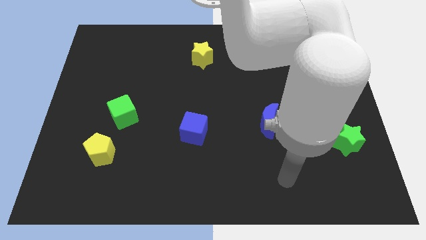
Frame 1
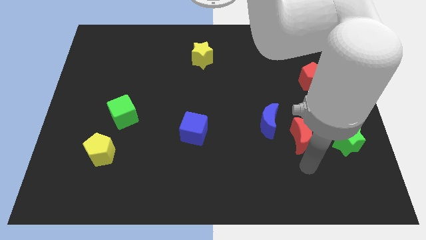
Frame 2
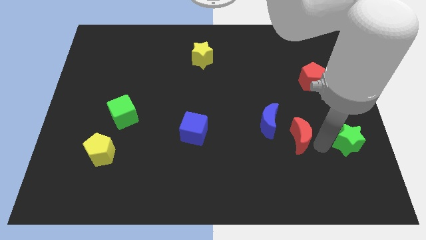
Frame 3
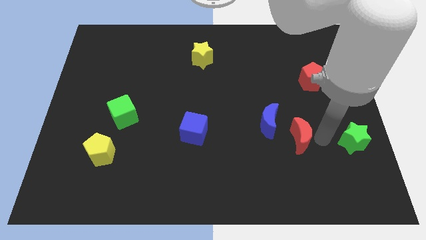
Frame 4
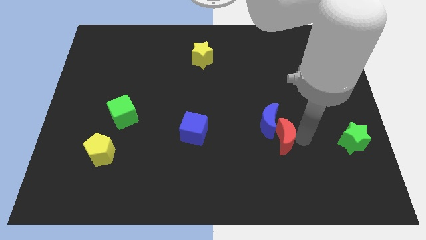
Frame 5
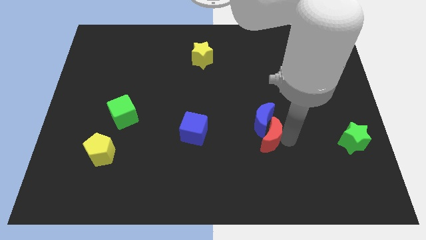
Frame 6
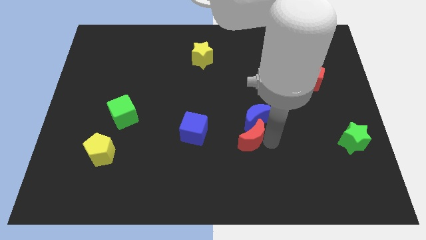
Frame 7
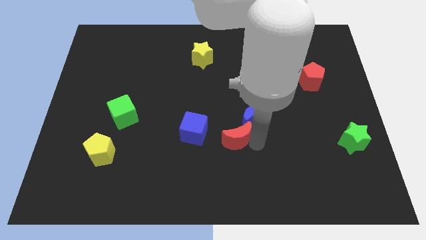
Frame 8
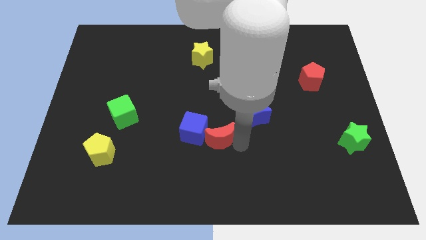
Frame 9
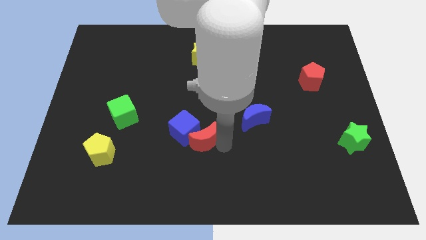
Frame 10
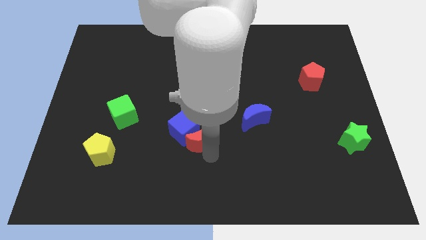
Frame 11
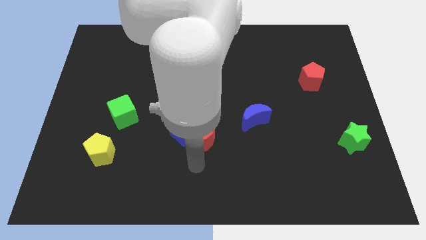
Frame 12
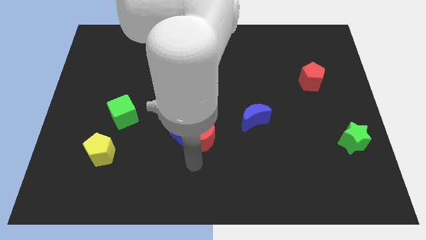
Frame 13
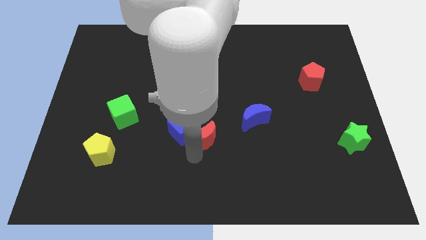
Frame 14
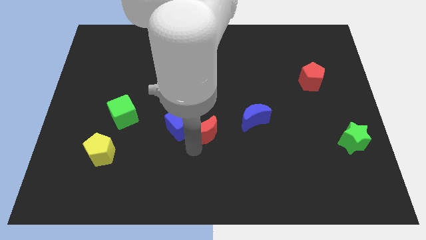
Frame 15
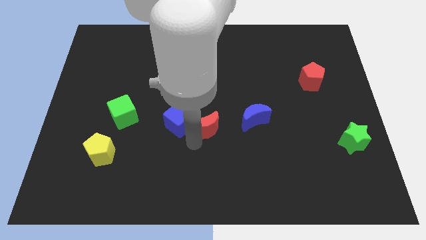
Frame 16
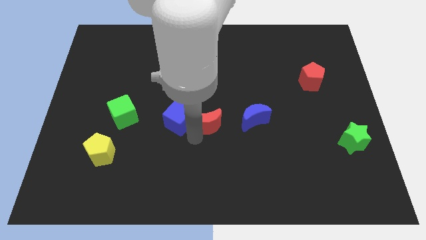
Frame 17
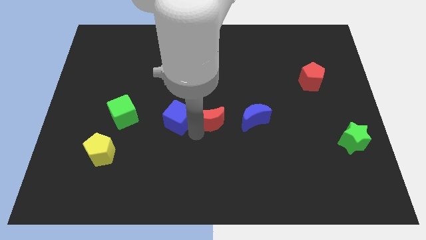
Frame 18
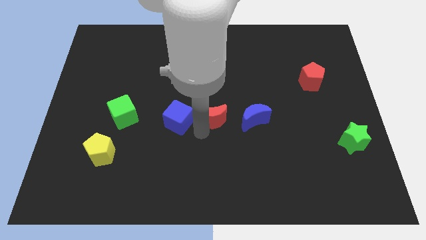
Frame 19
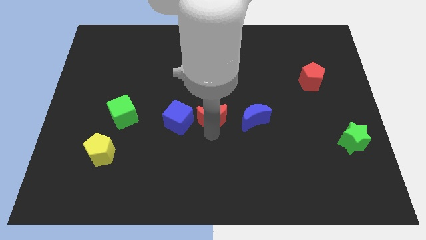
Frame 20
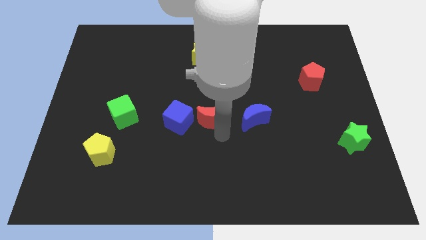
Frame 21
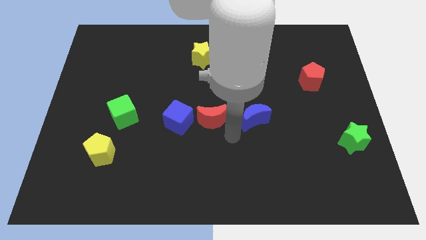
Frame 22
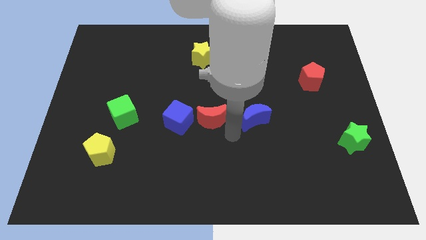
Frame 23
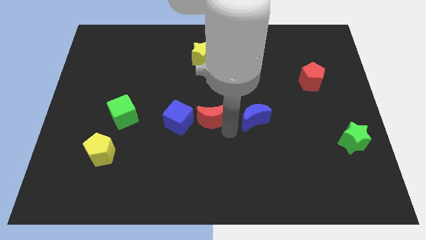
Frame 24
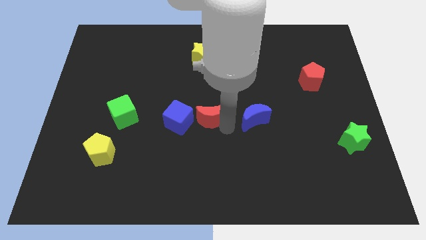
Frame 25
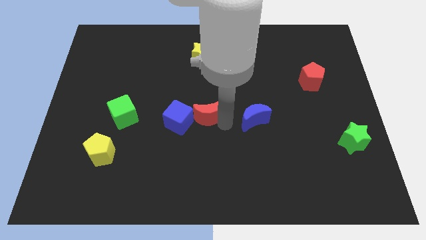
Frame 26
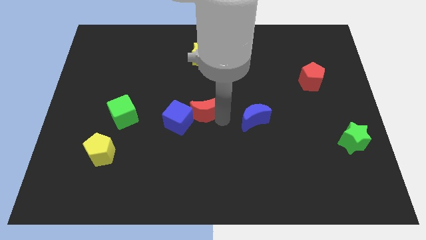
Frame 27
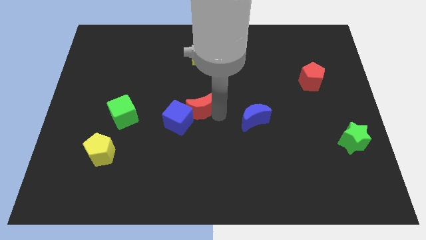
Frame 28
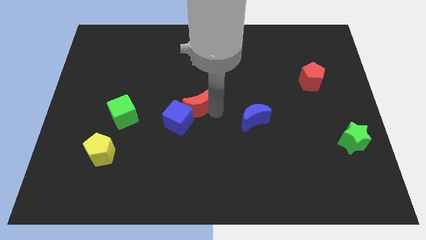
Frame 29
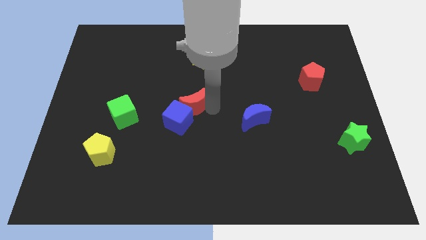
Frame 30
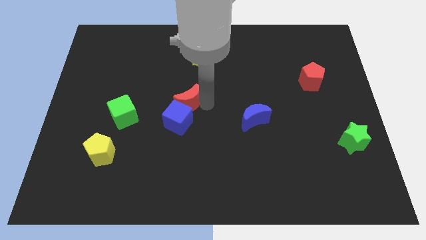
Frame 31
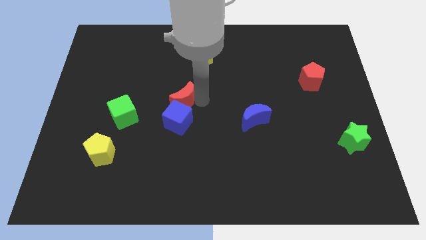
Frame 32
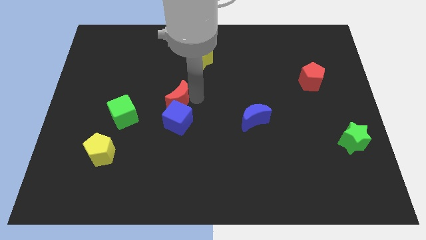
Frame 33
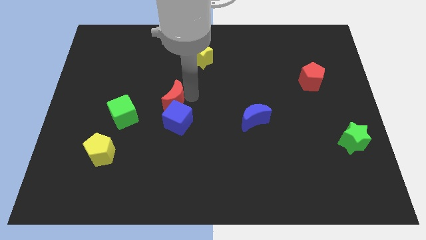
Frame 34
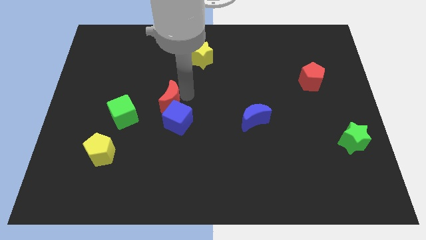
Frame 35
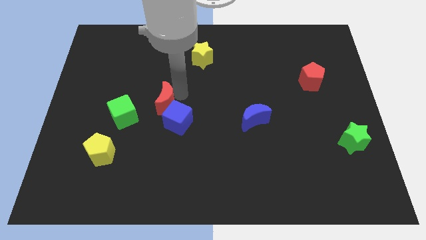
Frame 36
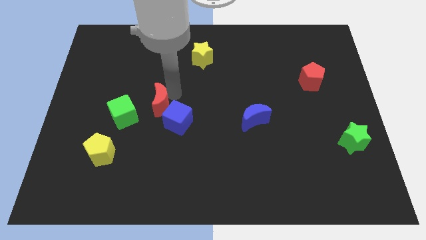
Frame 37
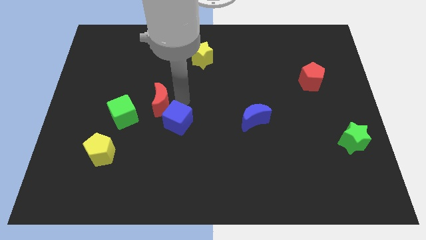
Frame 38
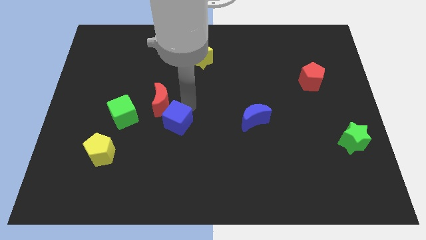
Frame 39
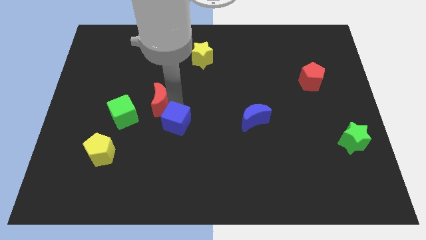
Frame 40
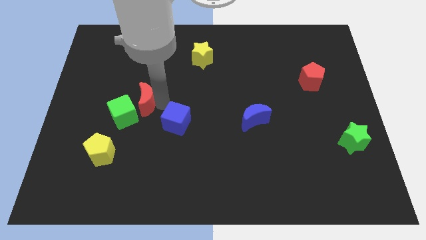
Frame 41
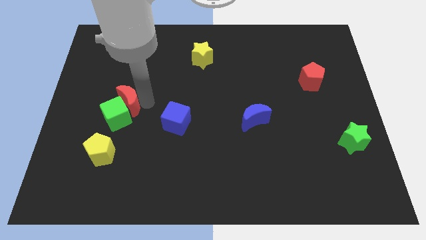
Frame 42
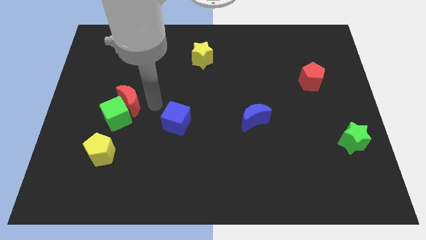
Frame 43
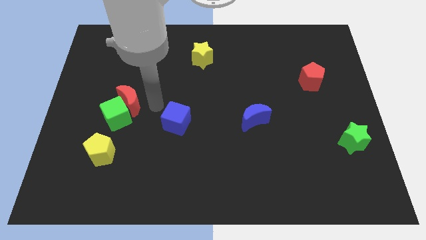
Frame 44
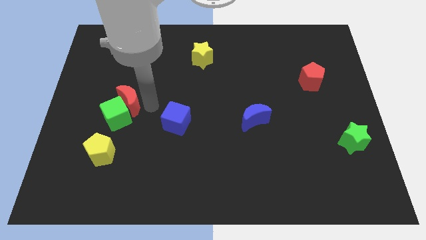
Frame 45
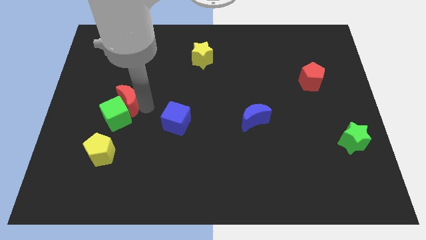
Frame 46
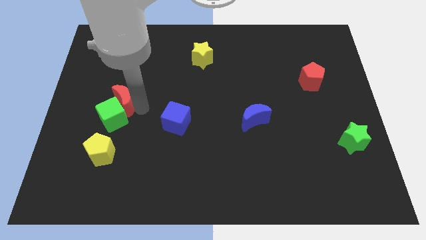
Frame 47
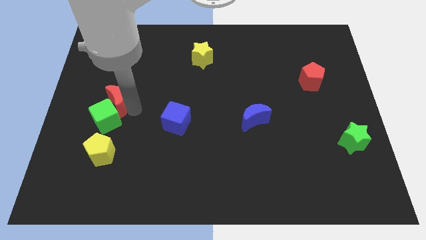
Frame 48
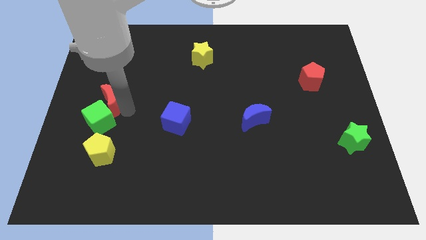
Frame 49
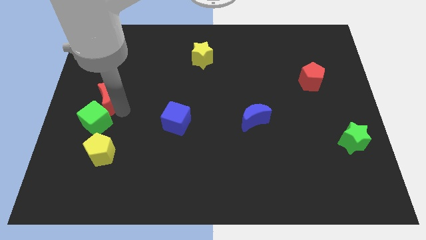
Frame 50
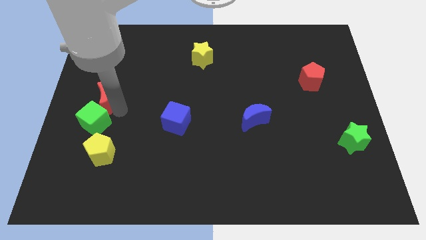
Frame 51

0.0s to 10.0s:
move the red moon to the left side

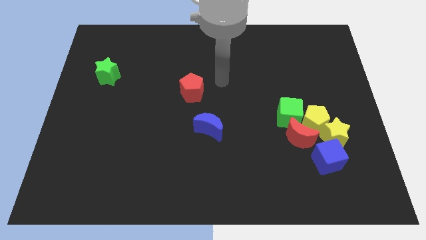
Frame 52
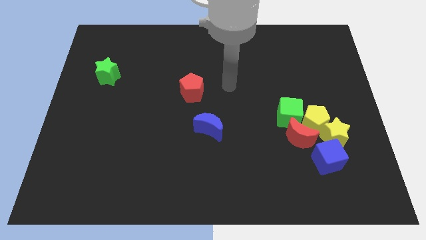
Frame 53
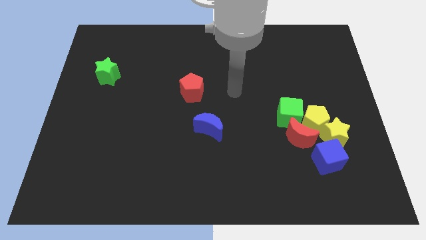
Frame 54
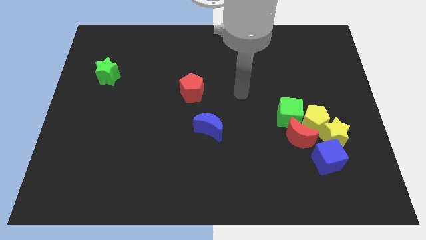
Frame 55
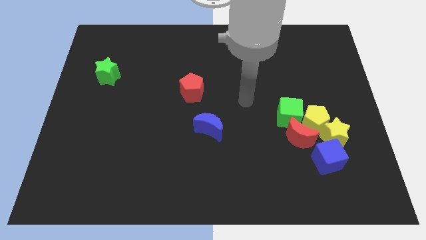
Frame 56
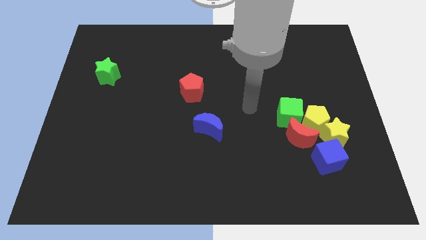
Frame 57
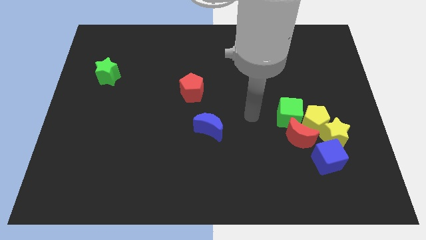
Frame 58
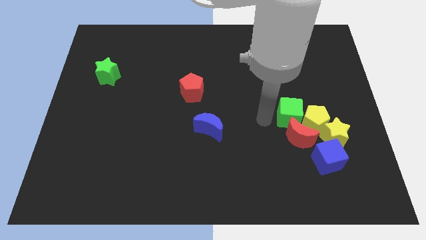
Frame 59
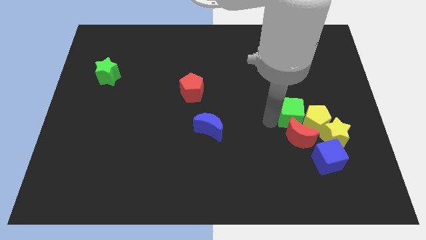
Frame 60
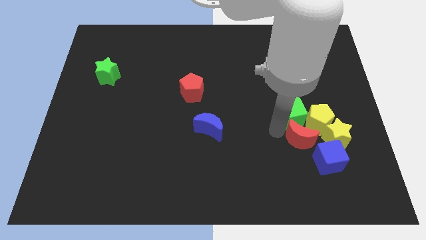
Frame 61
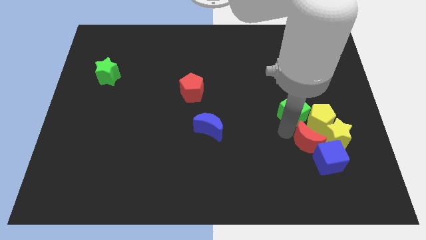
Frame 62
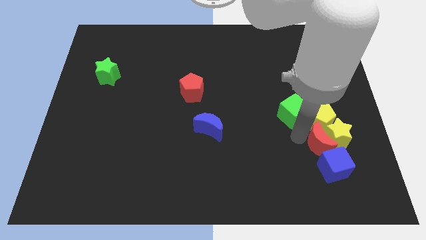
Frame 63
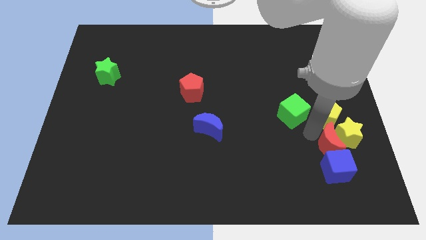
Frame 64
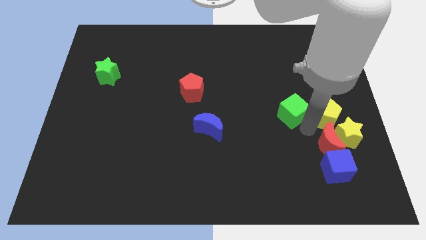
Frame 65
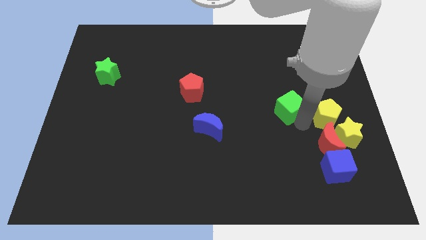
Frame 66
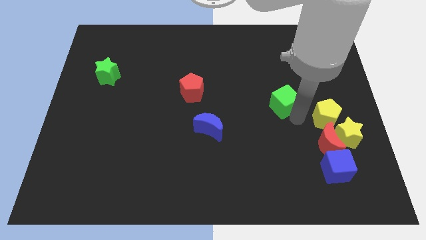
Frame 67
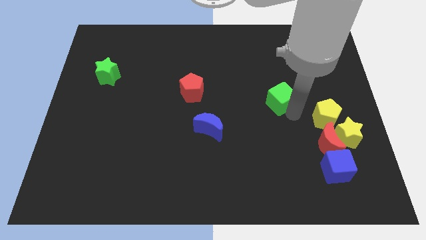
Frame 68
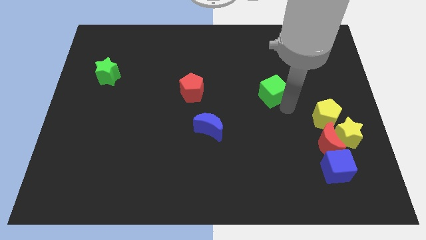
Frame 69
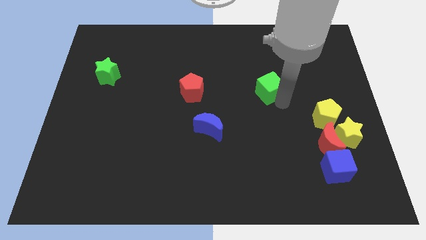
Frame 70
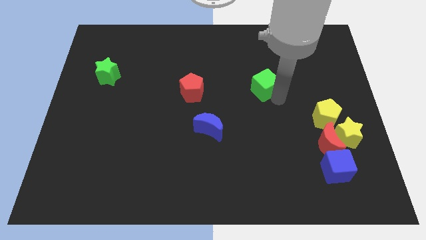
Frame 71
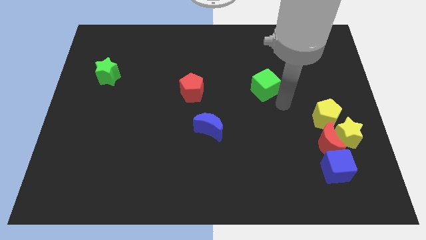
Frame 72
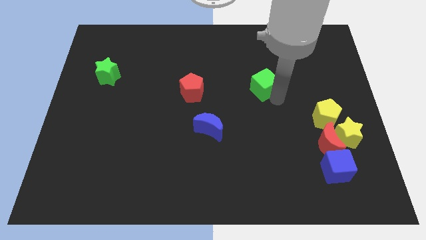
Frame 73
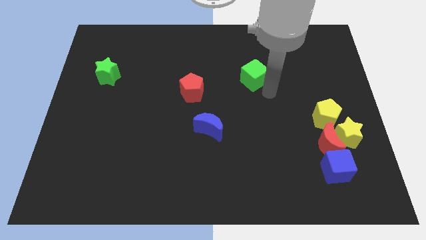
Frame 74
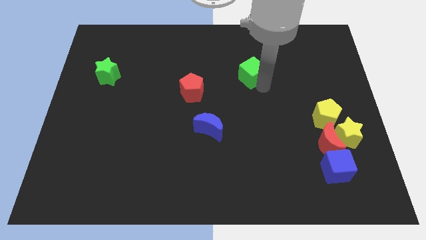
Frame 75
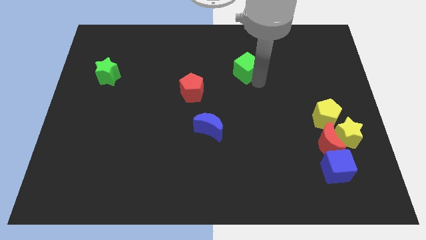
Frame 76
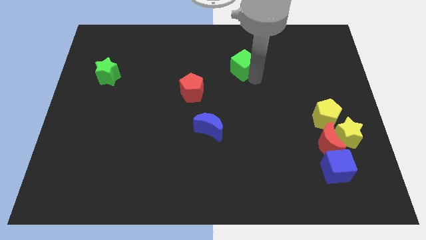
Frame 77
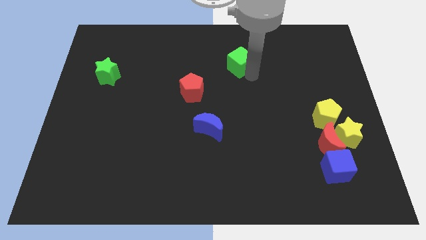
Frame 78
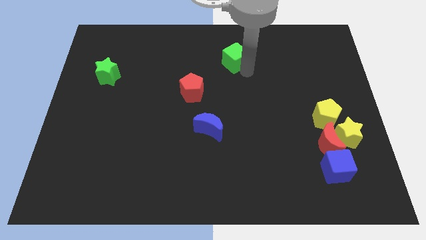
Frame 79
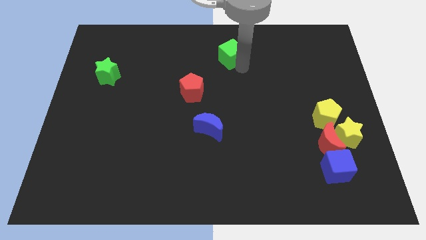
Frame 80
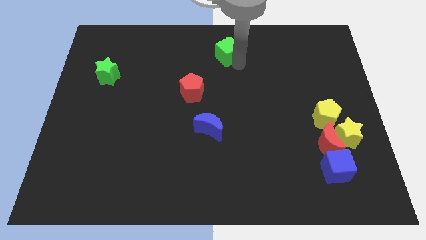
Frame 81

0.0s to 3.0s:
slide the green cube to the towards your base
